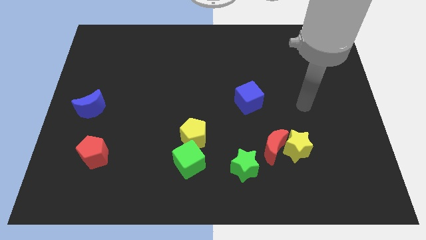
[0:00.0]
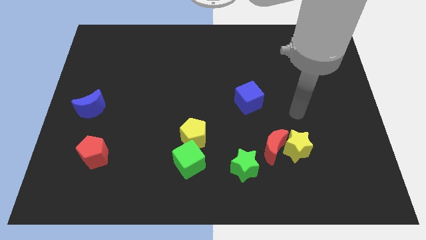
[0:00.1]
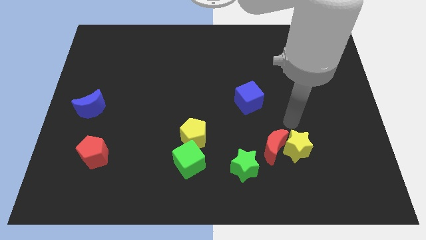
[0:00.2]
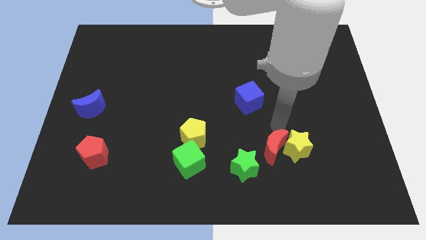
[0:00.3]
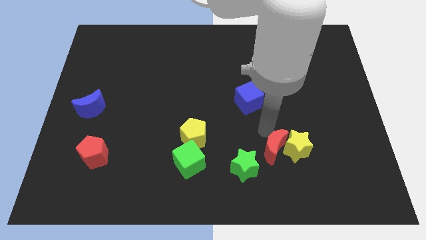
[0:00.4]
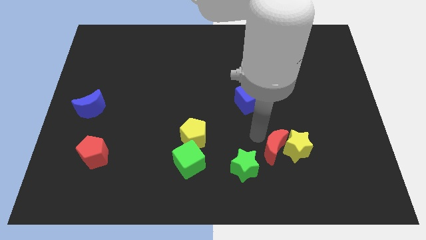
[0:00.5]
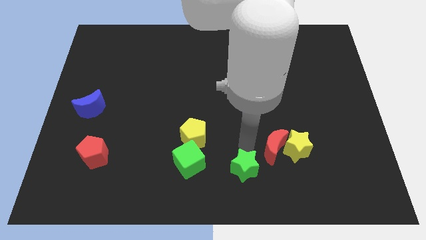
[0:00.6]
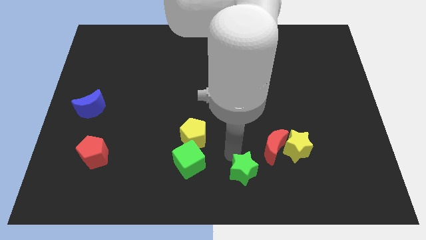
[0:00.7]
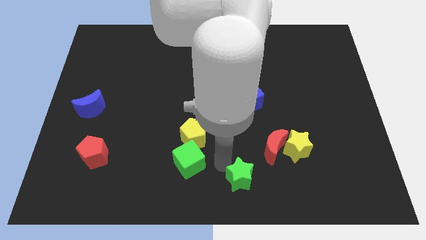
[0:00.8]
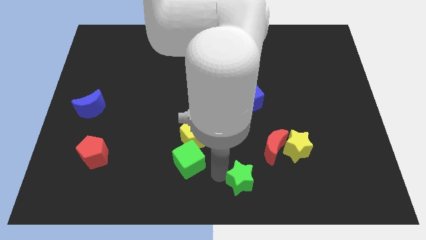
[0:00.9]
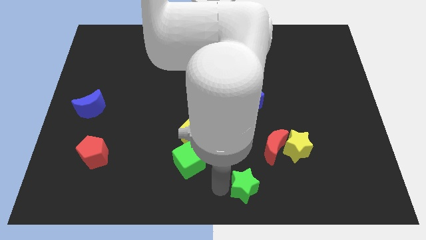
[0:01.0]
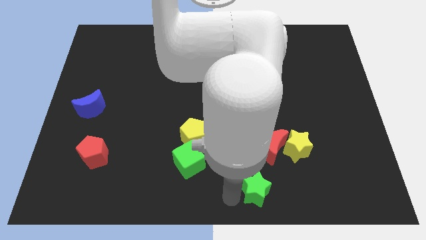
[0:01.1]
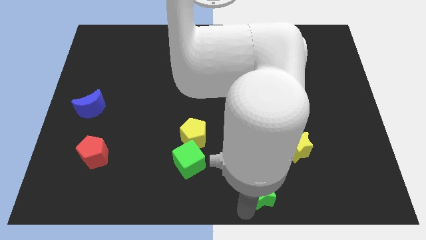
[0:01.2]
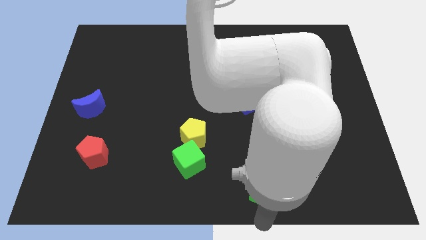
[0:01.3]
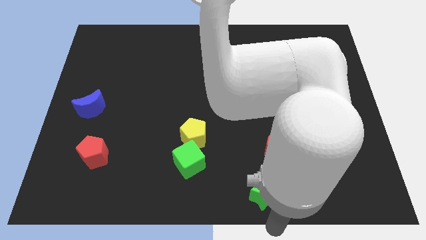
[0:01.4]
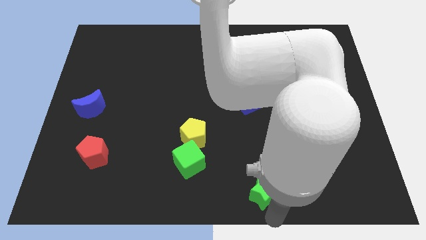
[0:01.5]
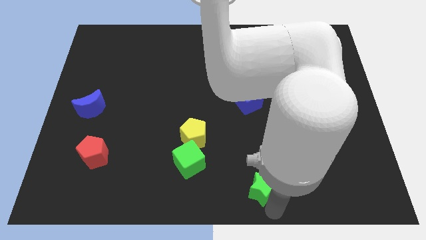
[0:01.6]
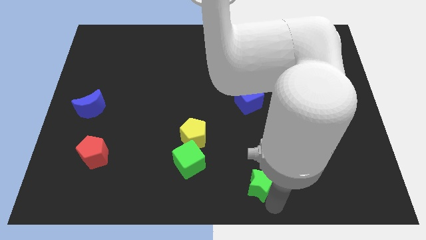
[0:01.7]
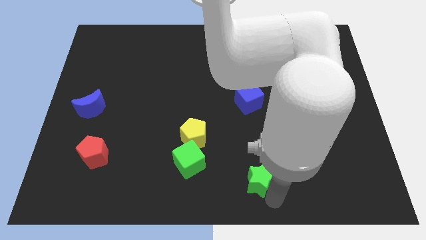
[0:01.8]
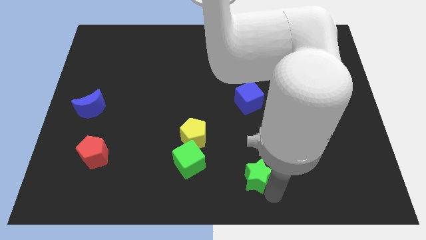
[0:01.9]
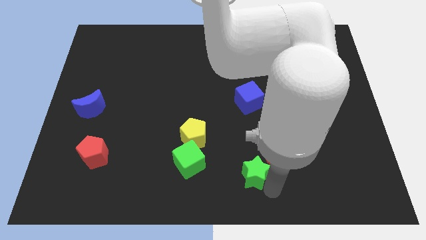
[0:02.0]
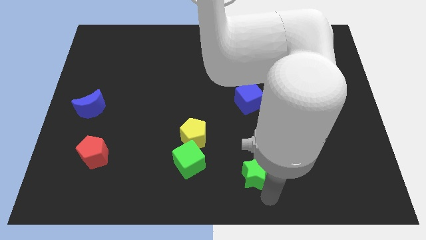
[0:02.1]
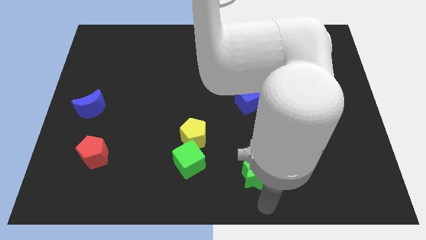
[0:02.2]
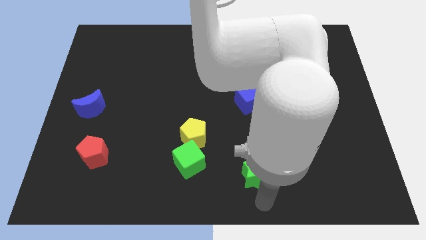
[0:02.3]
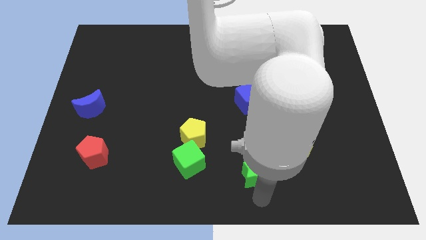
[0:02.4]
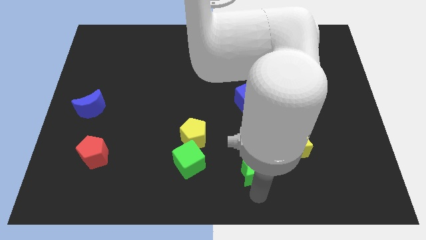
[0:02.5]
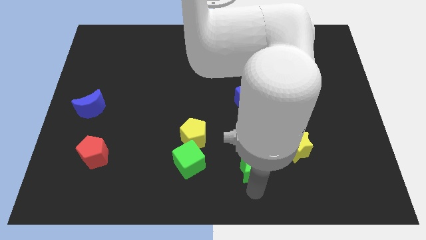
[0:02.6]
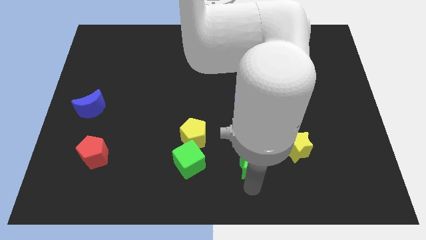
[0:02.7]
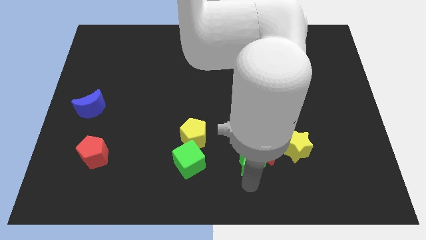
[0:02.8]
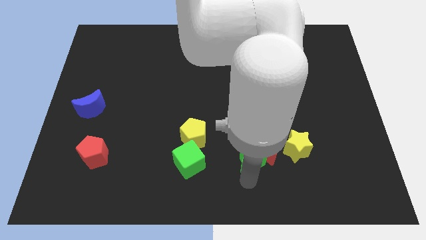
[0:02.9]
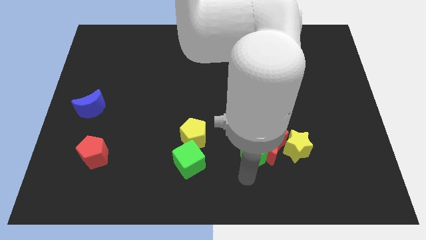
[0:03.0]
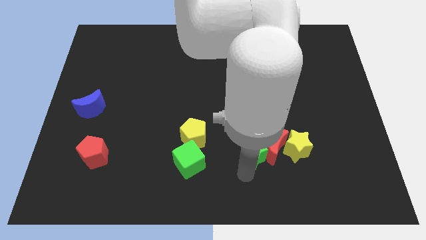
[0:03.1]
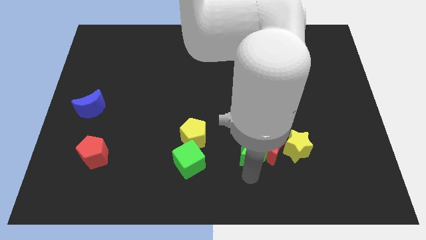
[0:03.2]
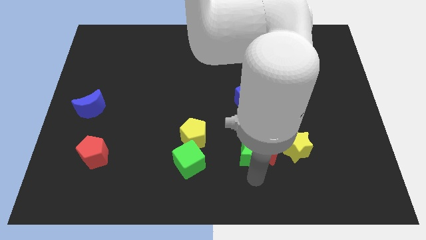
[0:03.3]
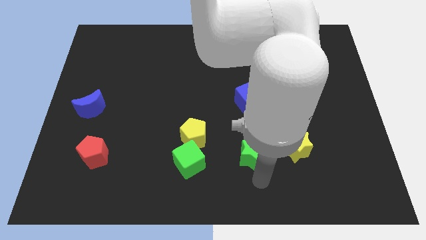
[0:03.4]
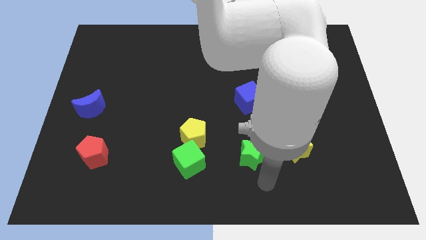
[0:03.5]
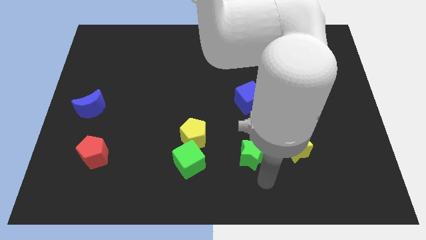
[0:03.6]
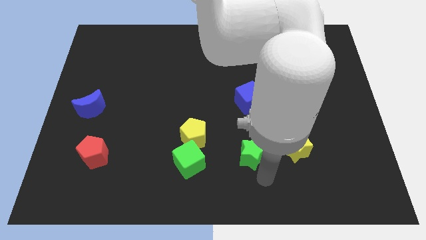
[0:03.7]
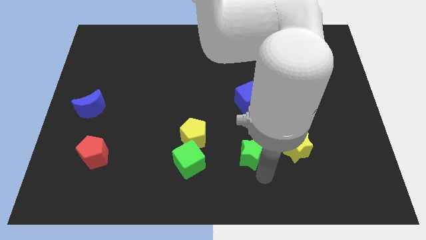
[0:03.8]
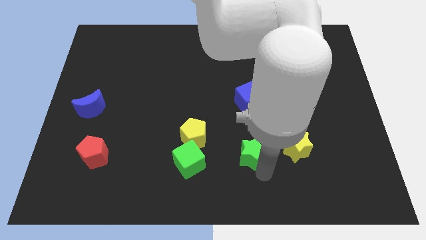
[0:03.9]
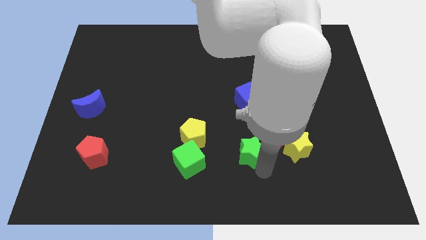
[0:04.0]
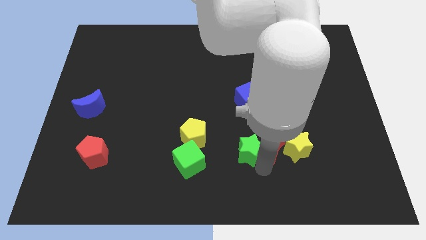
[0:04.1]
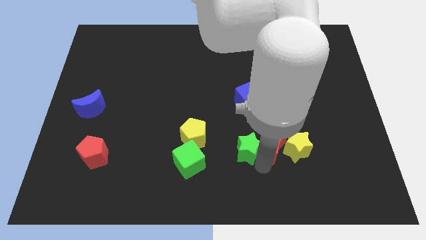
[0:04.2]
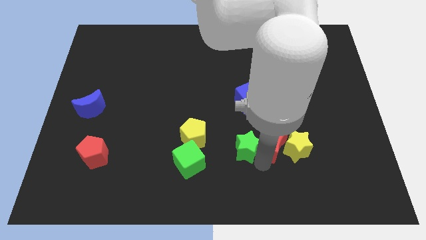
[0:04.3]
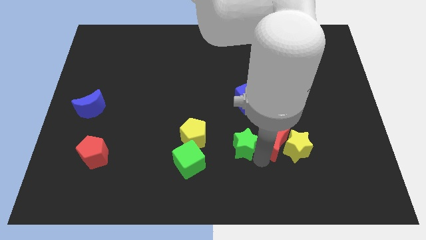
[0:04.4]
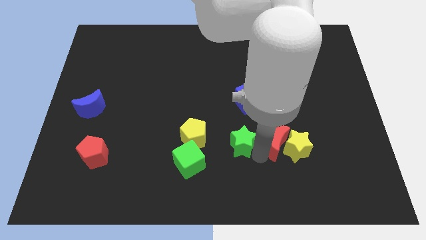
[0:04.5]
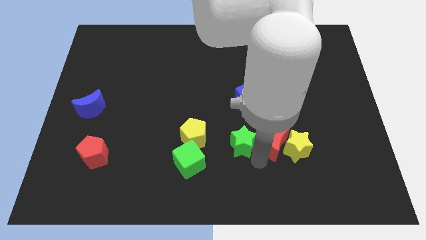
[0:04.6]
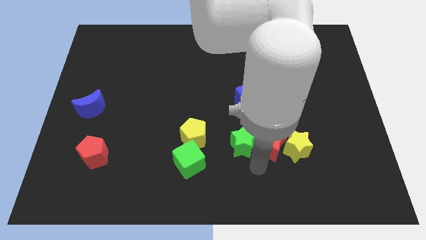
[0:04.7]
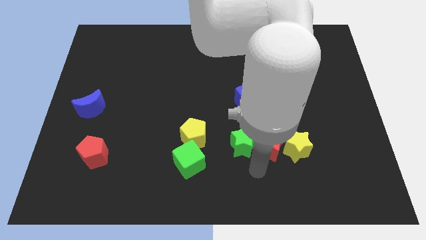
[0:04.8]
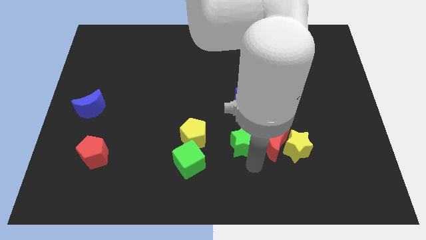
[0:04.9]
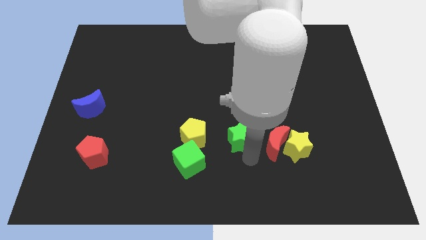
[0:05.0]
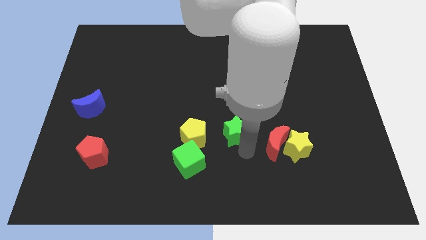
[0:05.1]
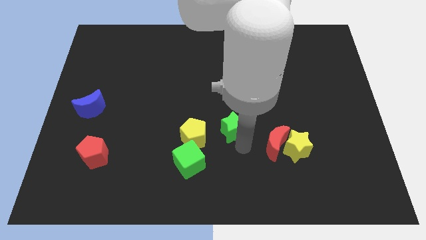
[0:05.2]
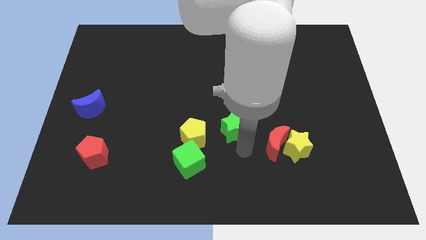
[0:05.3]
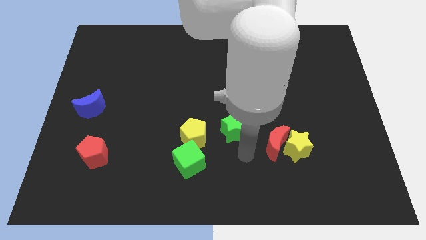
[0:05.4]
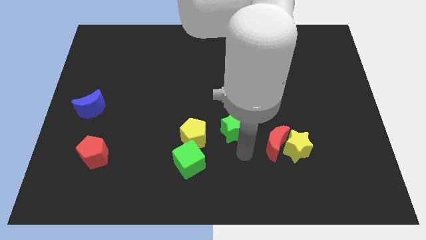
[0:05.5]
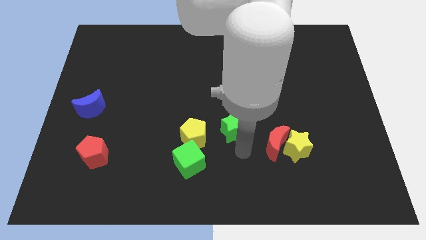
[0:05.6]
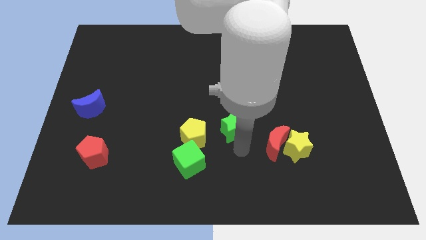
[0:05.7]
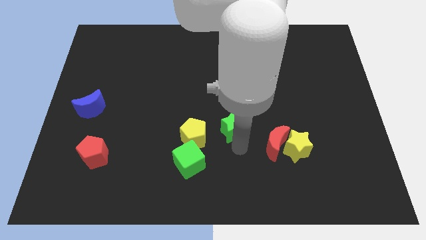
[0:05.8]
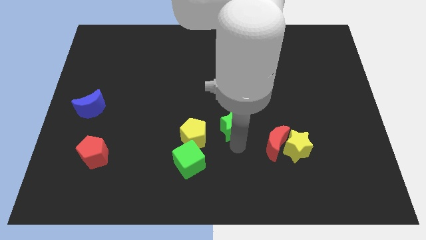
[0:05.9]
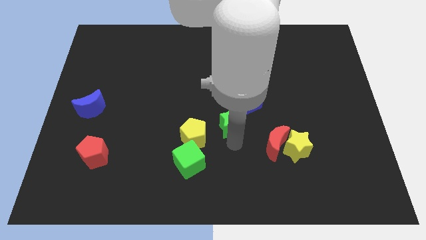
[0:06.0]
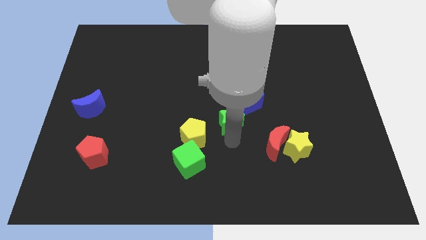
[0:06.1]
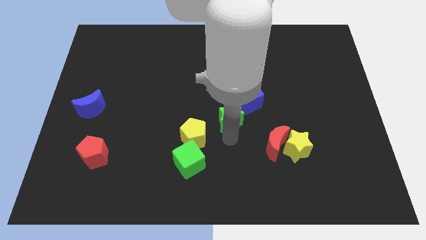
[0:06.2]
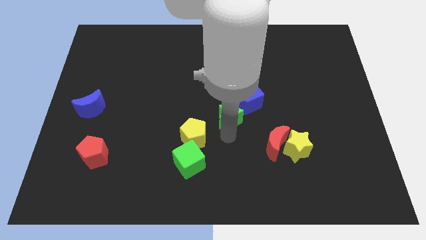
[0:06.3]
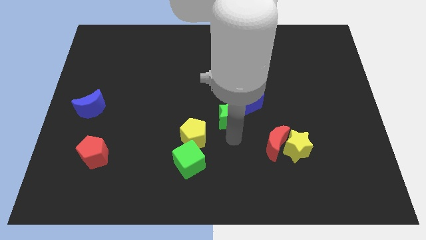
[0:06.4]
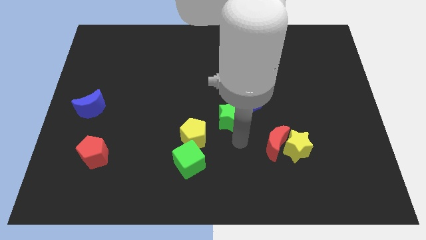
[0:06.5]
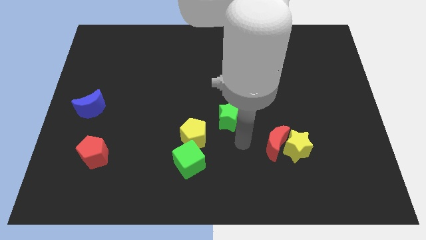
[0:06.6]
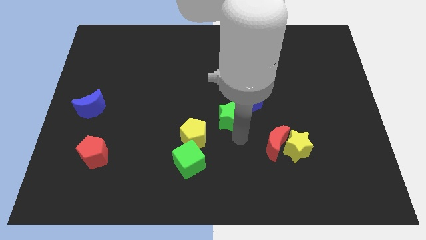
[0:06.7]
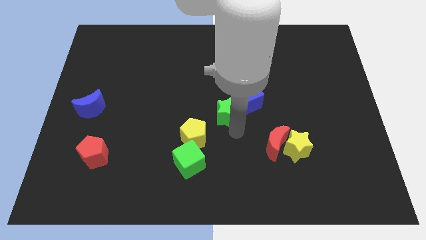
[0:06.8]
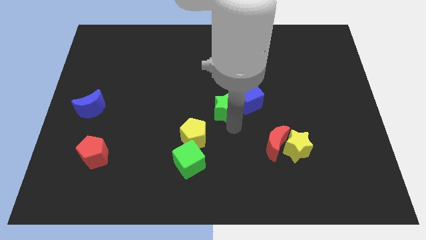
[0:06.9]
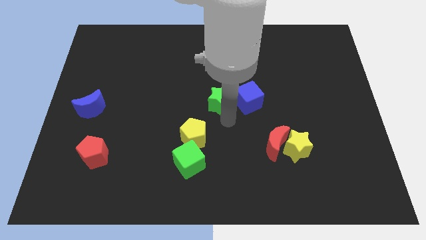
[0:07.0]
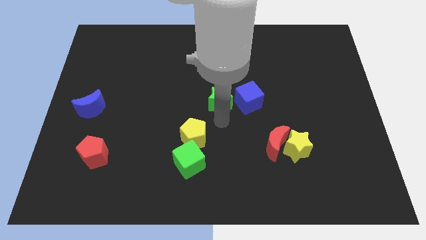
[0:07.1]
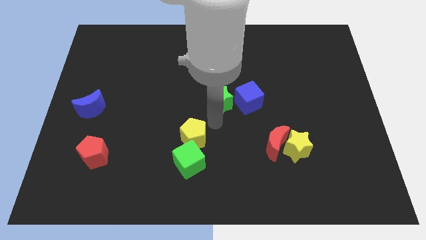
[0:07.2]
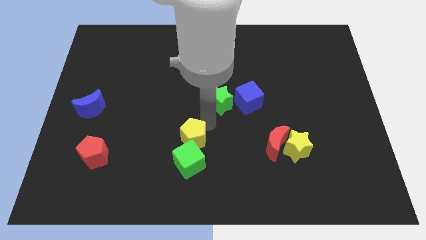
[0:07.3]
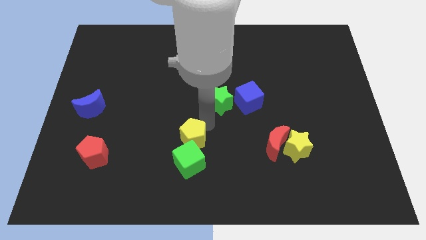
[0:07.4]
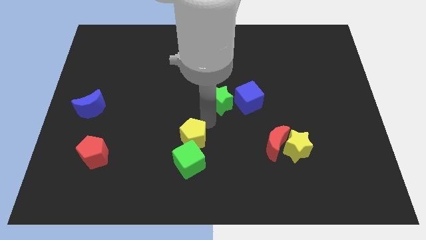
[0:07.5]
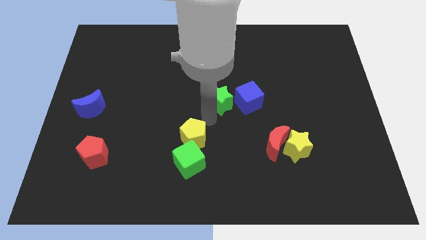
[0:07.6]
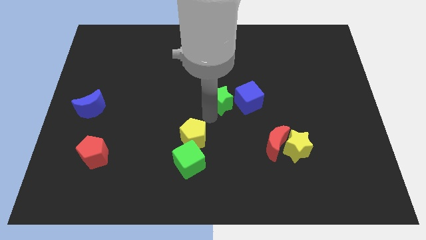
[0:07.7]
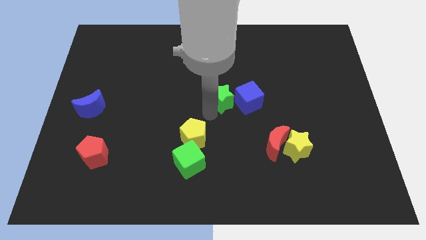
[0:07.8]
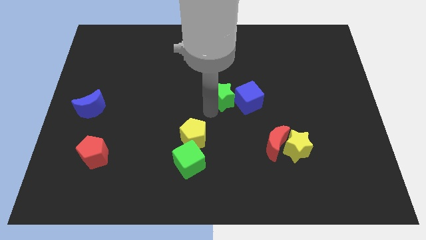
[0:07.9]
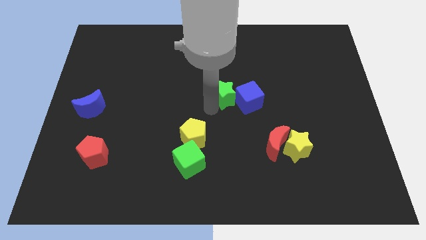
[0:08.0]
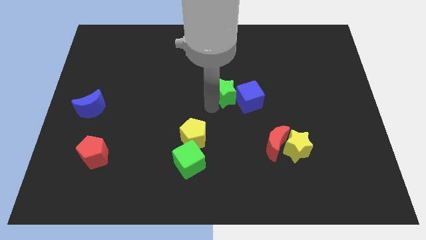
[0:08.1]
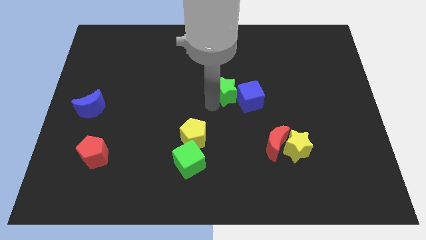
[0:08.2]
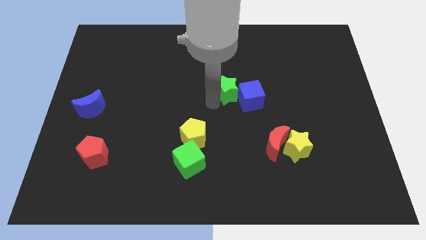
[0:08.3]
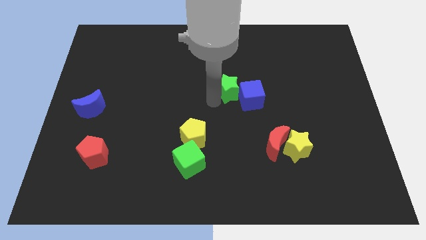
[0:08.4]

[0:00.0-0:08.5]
slide the green star upwards
